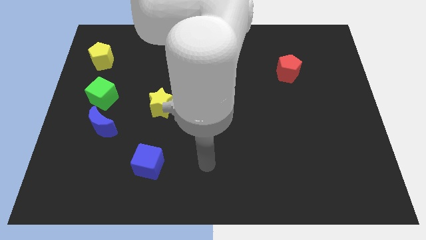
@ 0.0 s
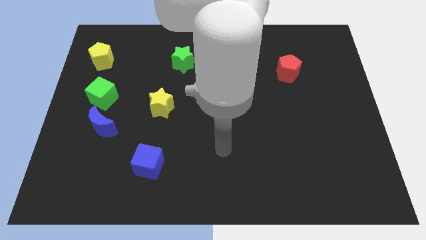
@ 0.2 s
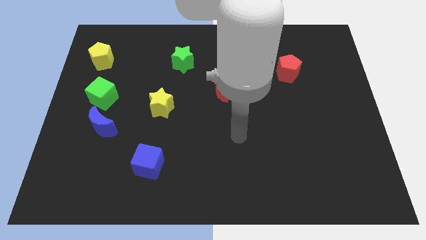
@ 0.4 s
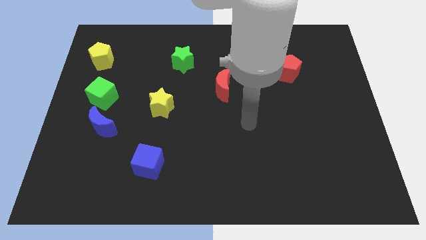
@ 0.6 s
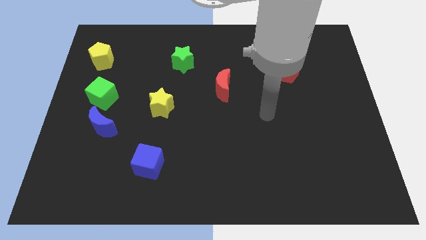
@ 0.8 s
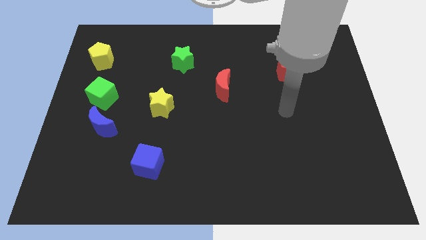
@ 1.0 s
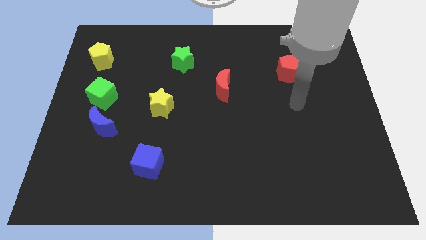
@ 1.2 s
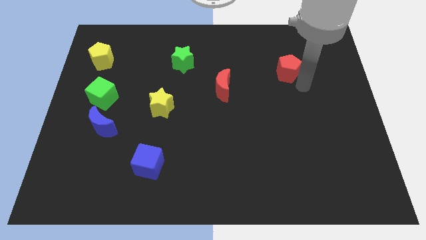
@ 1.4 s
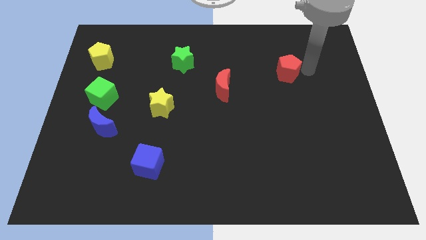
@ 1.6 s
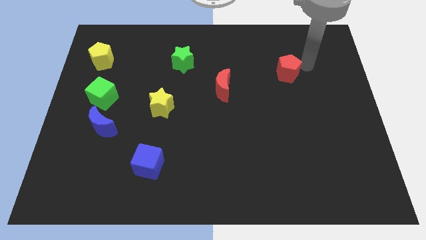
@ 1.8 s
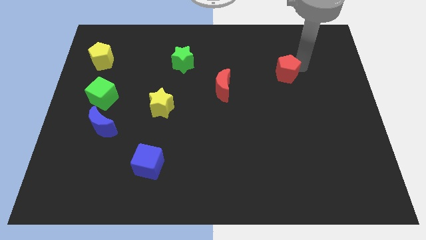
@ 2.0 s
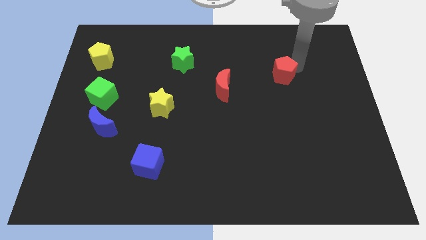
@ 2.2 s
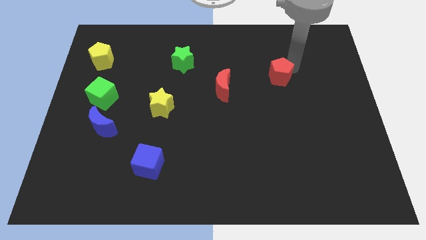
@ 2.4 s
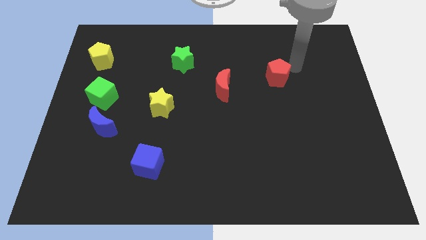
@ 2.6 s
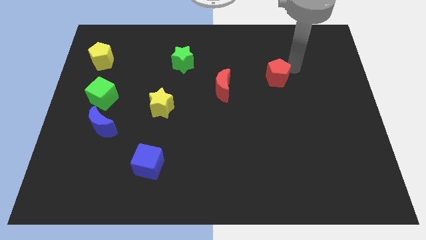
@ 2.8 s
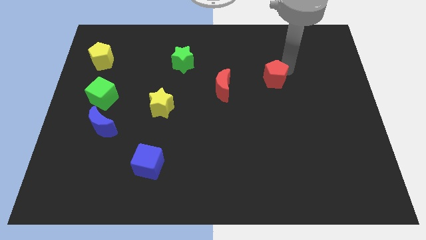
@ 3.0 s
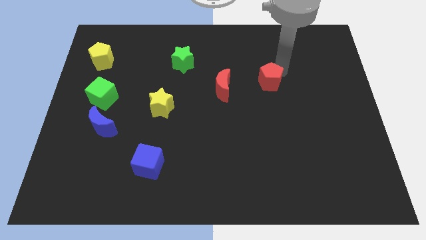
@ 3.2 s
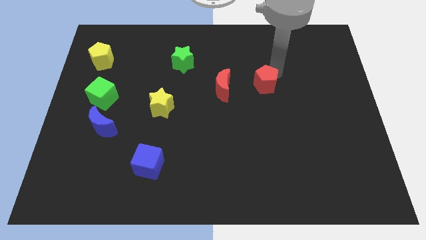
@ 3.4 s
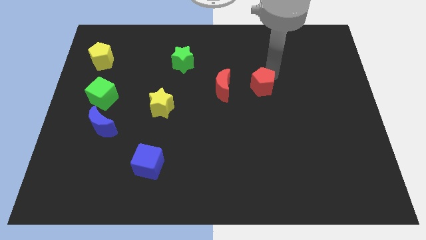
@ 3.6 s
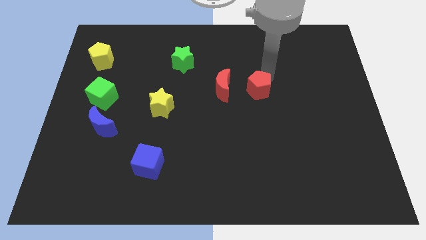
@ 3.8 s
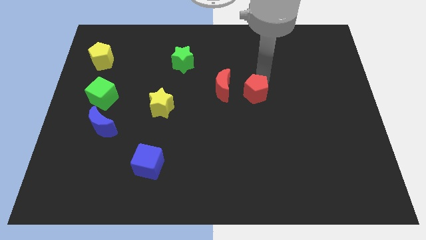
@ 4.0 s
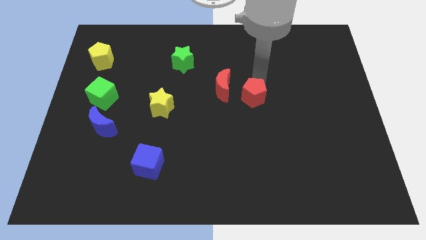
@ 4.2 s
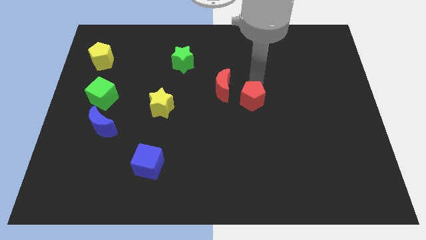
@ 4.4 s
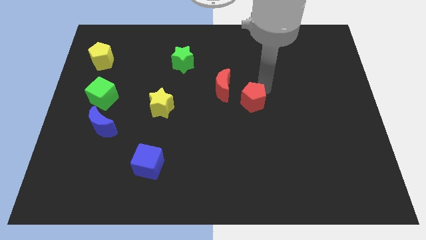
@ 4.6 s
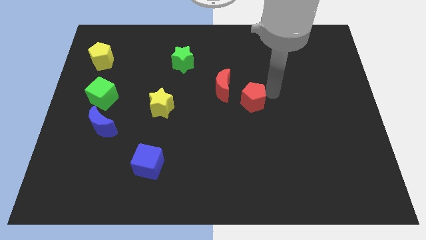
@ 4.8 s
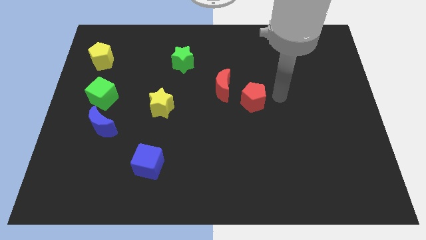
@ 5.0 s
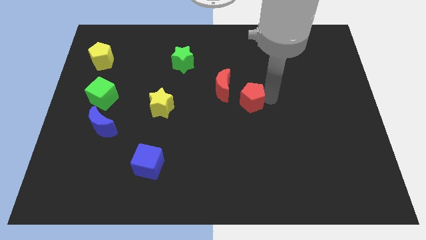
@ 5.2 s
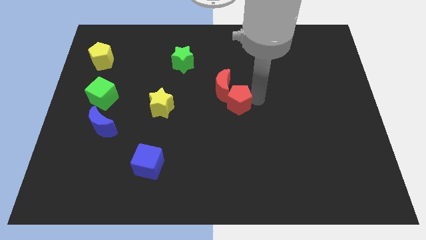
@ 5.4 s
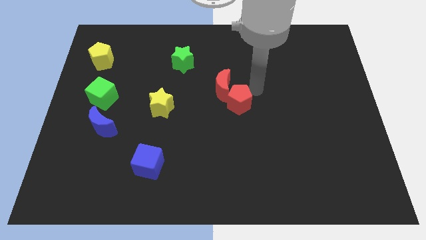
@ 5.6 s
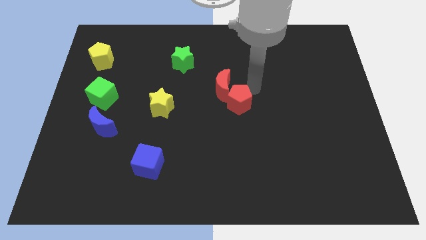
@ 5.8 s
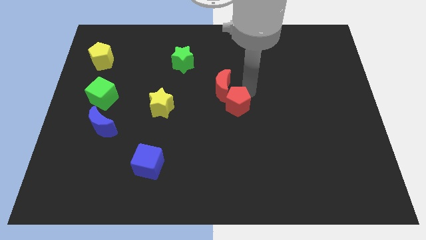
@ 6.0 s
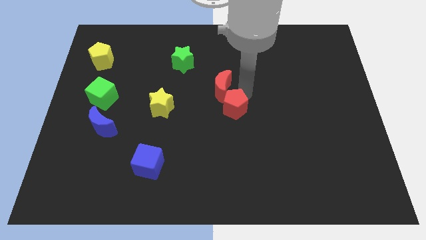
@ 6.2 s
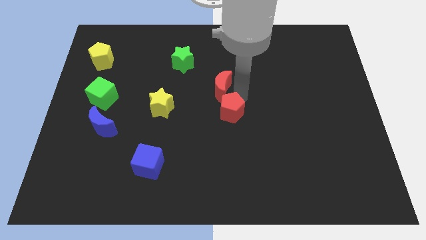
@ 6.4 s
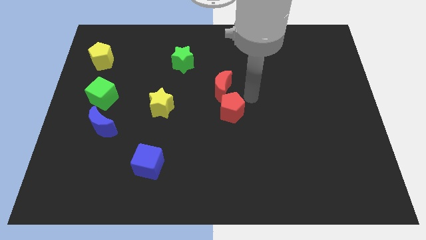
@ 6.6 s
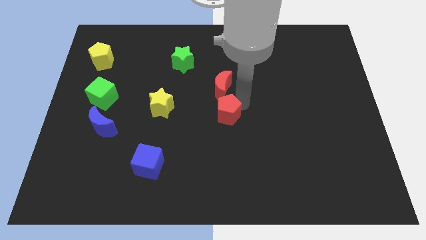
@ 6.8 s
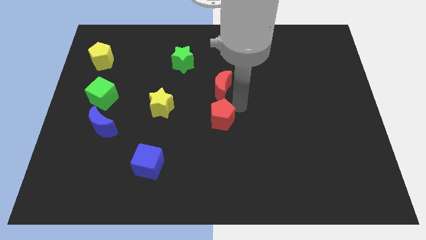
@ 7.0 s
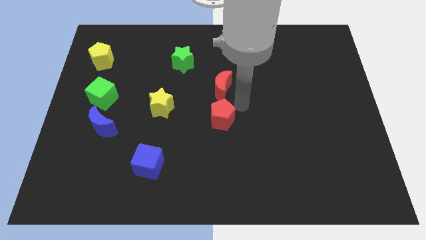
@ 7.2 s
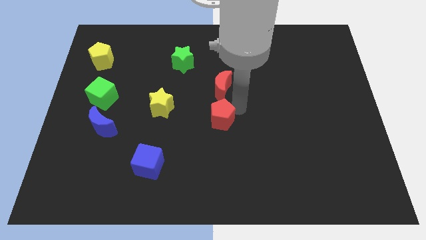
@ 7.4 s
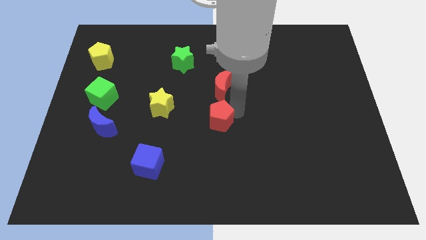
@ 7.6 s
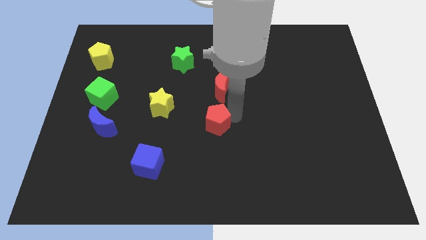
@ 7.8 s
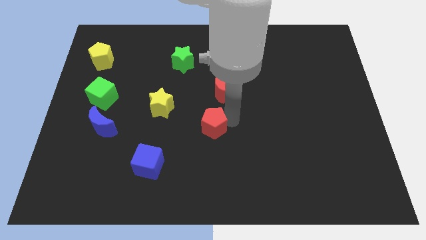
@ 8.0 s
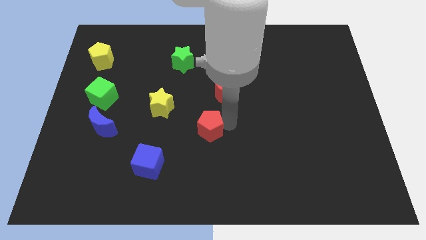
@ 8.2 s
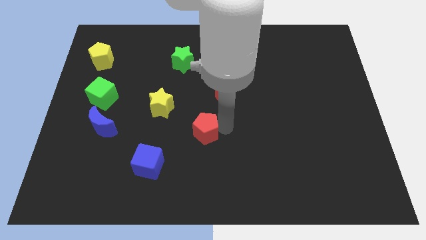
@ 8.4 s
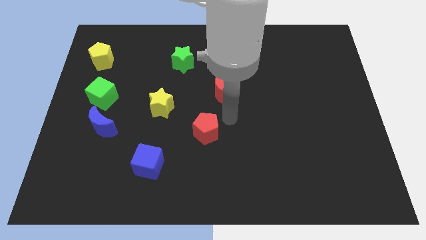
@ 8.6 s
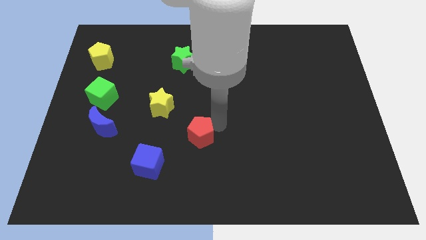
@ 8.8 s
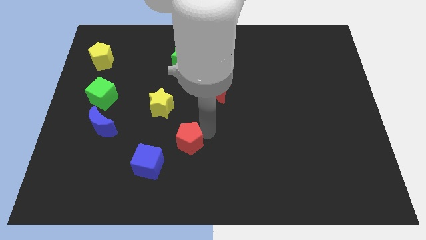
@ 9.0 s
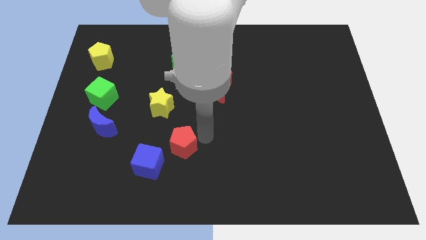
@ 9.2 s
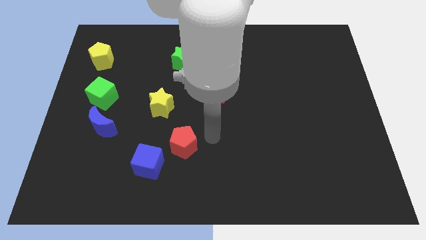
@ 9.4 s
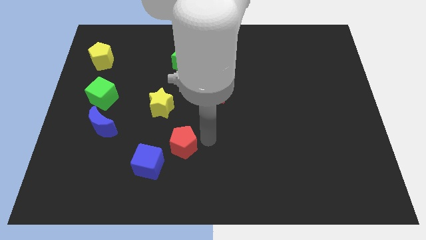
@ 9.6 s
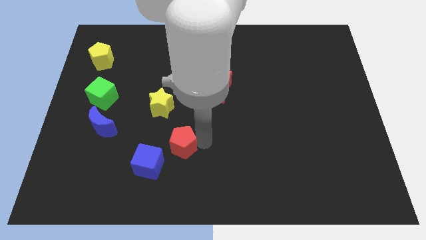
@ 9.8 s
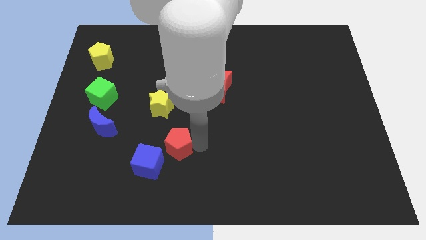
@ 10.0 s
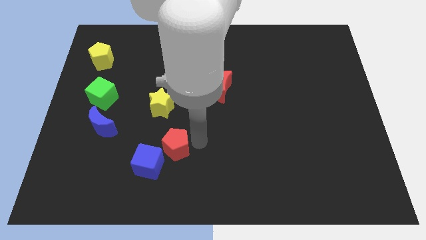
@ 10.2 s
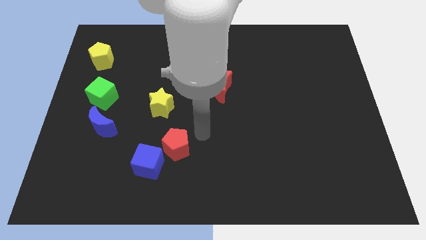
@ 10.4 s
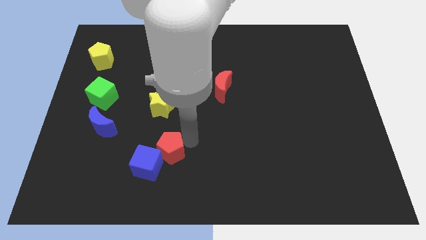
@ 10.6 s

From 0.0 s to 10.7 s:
slide the red pentagon next to the blue cube

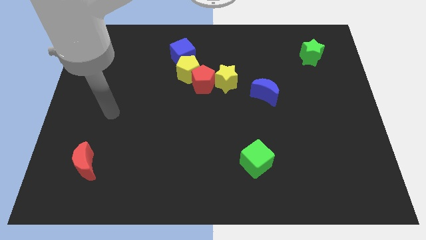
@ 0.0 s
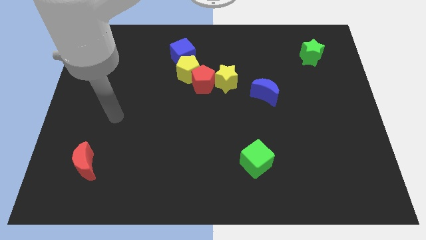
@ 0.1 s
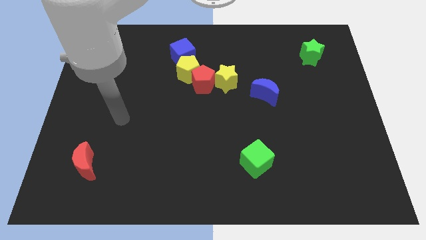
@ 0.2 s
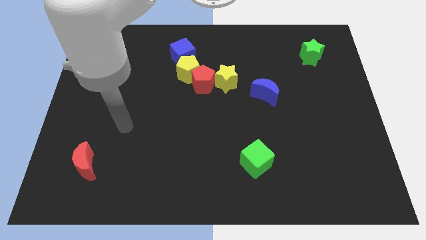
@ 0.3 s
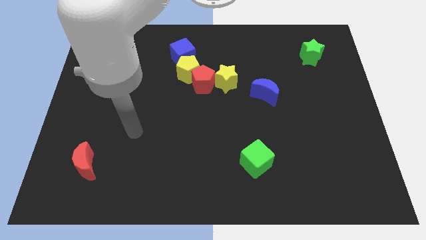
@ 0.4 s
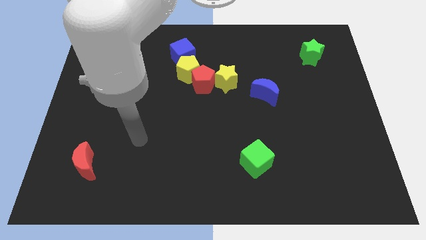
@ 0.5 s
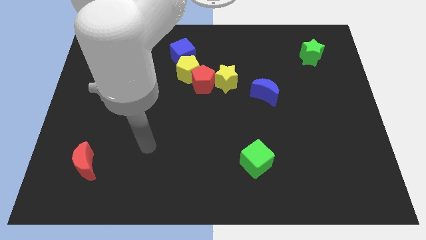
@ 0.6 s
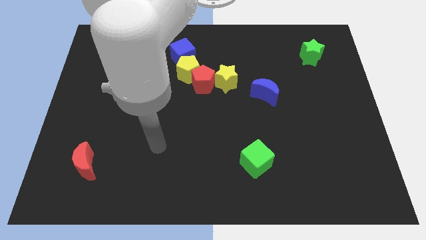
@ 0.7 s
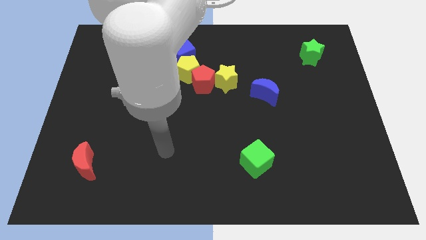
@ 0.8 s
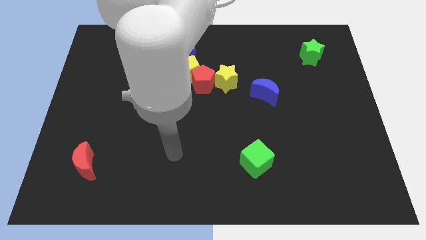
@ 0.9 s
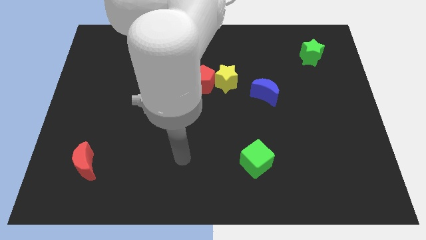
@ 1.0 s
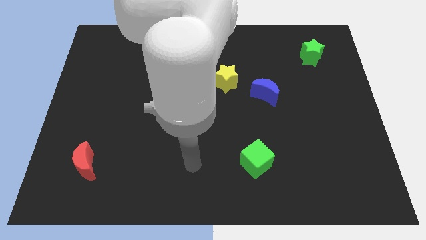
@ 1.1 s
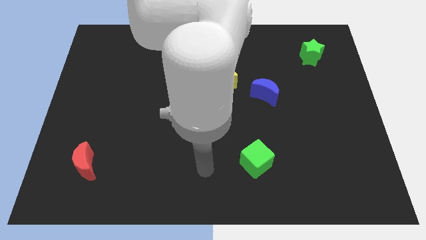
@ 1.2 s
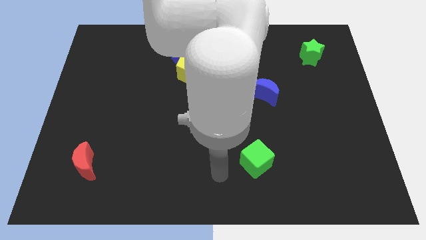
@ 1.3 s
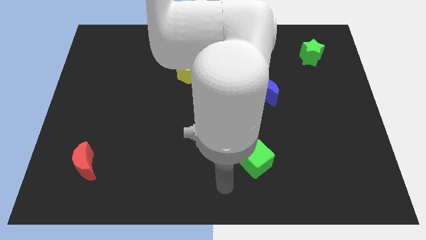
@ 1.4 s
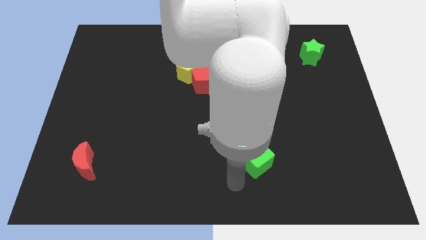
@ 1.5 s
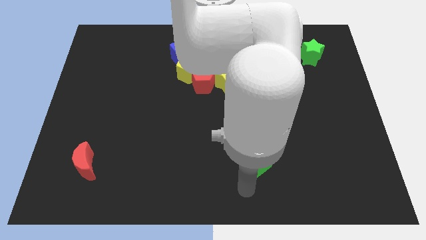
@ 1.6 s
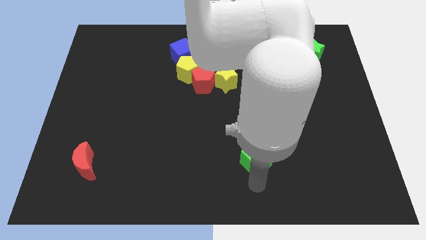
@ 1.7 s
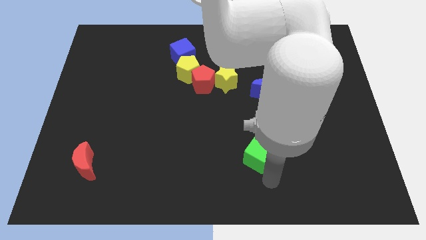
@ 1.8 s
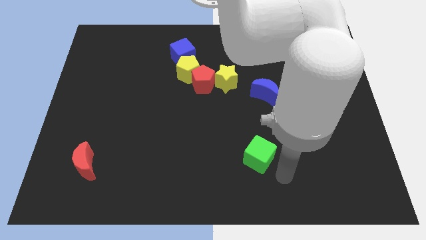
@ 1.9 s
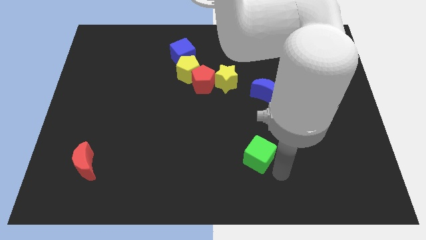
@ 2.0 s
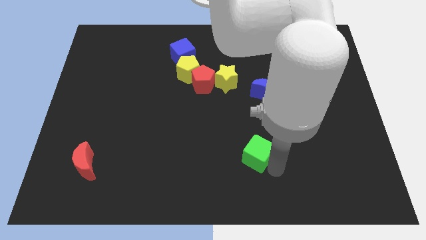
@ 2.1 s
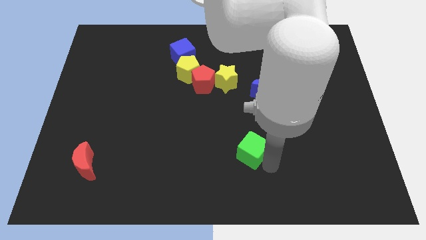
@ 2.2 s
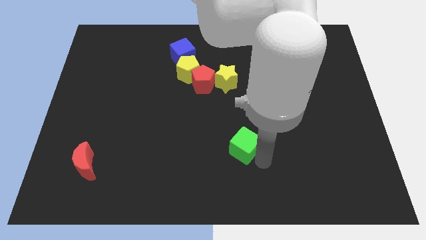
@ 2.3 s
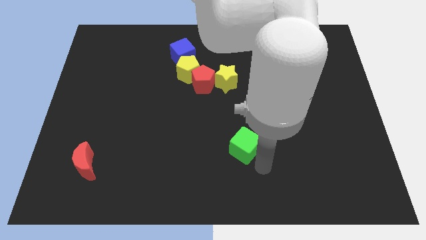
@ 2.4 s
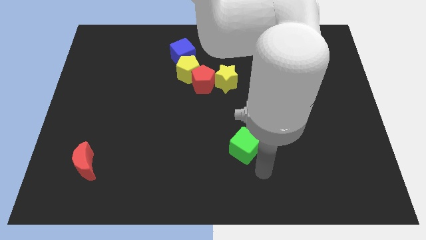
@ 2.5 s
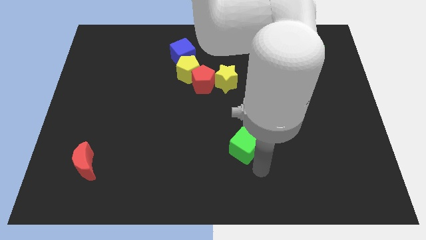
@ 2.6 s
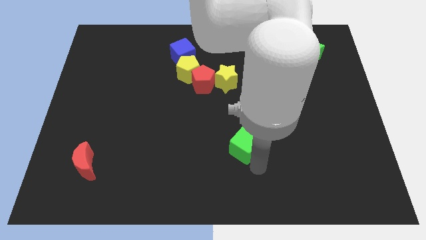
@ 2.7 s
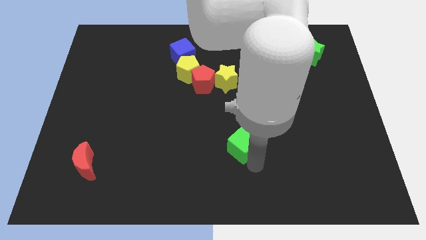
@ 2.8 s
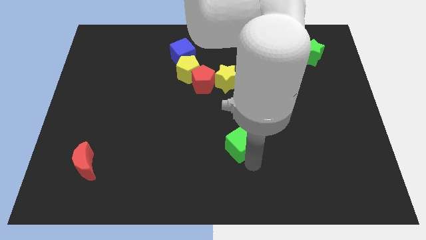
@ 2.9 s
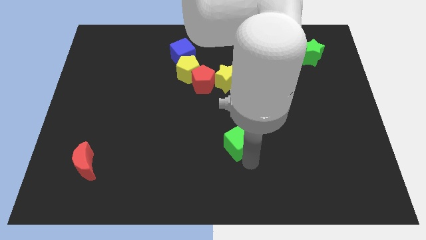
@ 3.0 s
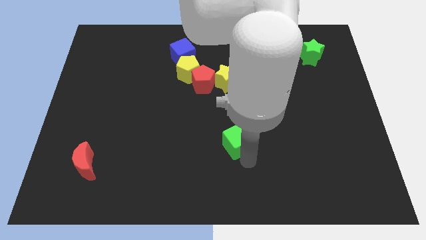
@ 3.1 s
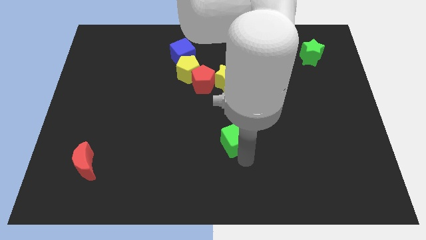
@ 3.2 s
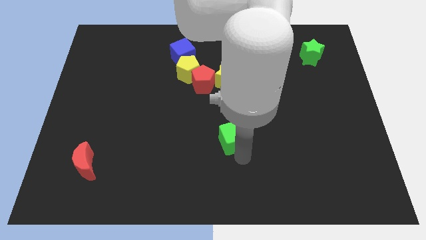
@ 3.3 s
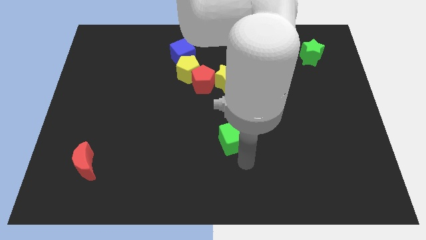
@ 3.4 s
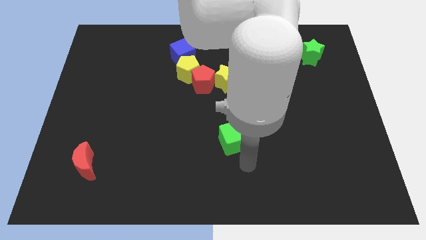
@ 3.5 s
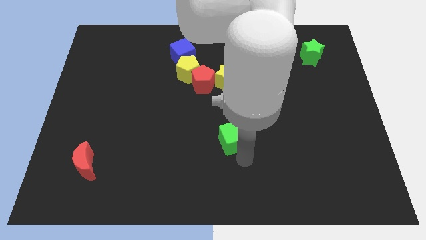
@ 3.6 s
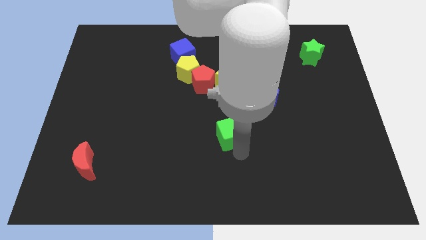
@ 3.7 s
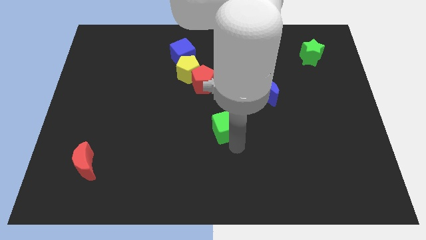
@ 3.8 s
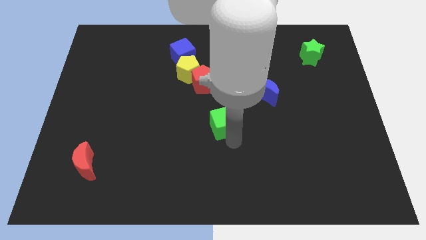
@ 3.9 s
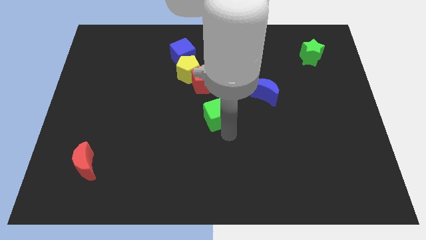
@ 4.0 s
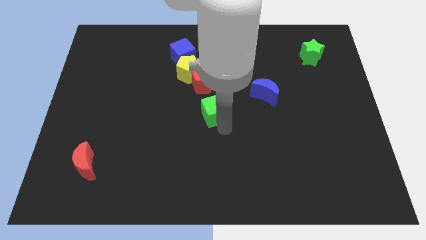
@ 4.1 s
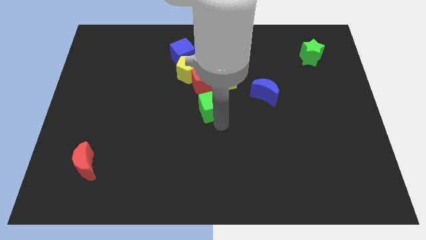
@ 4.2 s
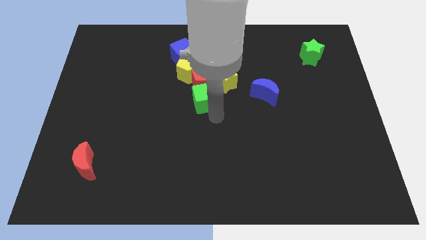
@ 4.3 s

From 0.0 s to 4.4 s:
slide the green cube next to the red pentagon
